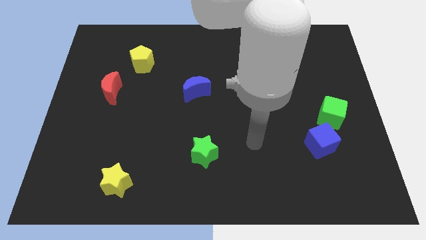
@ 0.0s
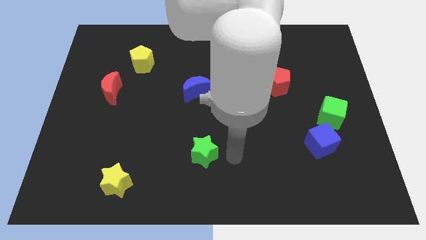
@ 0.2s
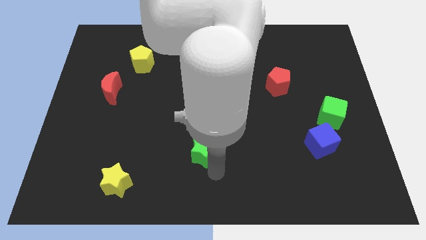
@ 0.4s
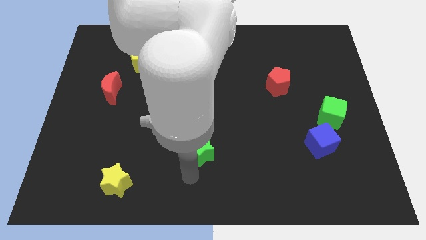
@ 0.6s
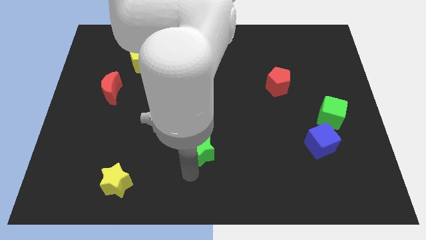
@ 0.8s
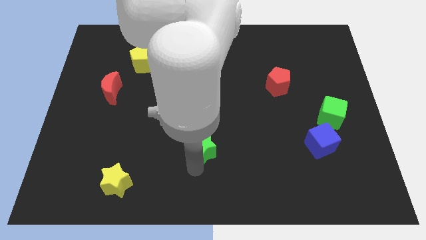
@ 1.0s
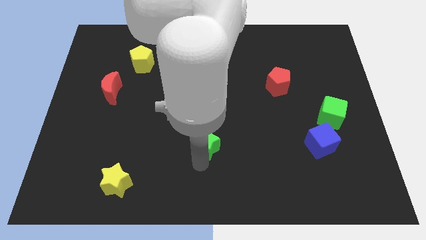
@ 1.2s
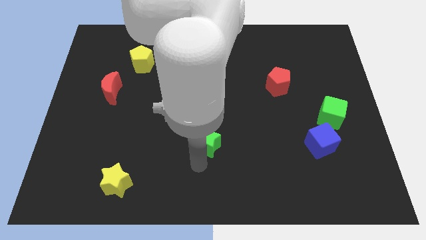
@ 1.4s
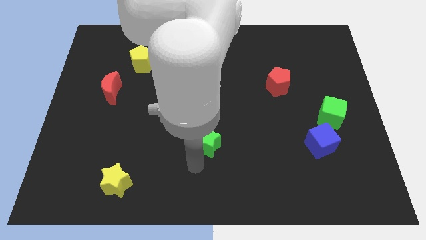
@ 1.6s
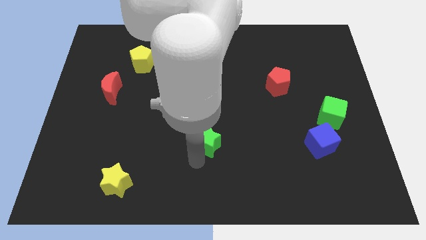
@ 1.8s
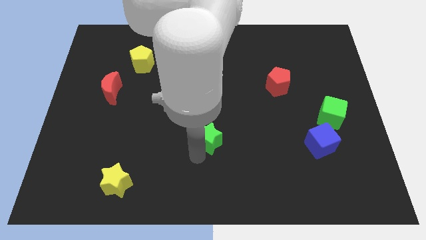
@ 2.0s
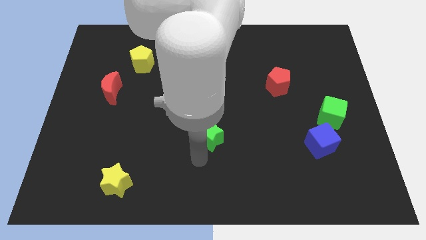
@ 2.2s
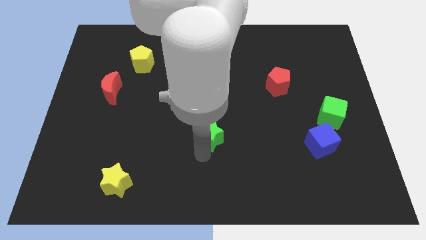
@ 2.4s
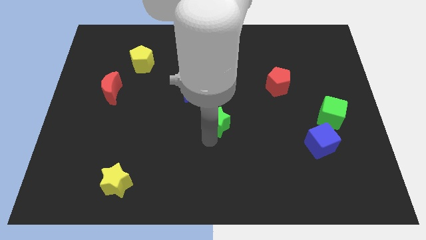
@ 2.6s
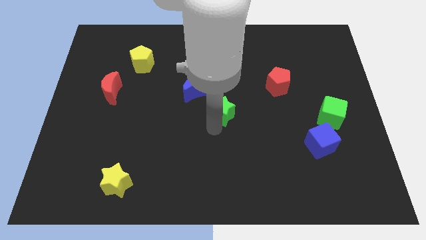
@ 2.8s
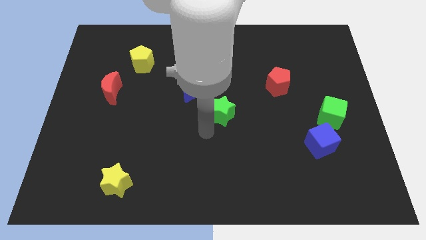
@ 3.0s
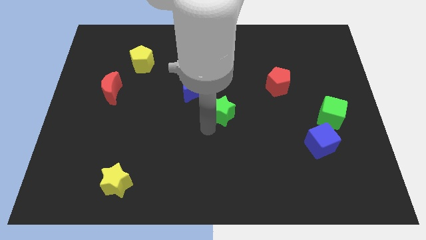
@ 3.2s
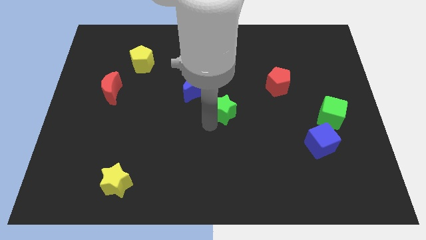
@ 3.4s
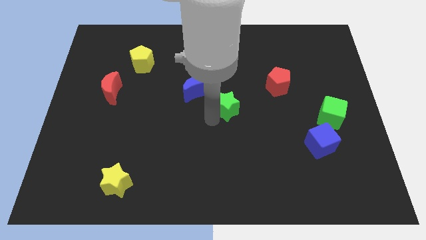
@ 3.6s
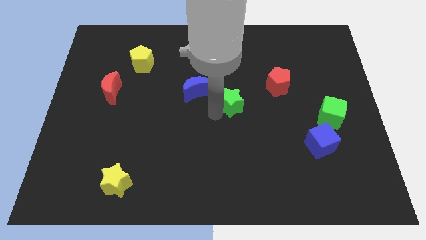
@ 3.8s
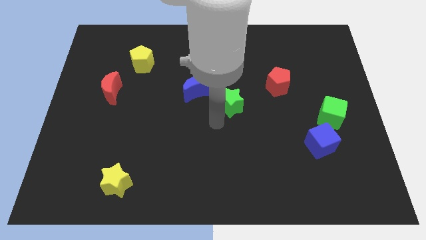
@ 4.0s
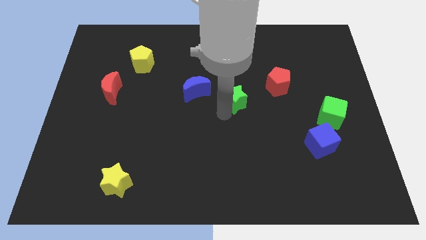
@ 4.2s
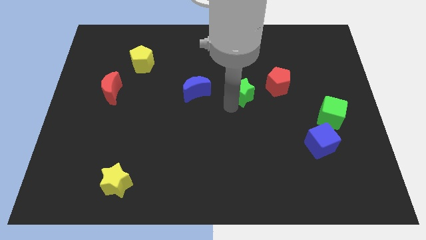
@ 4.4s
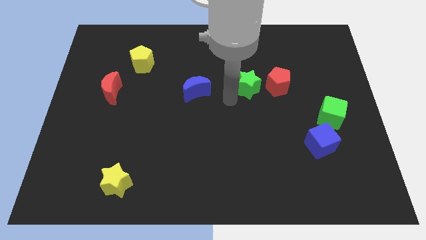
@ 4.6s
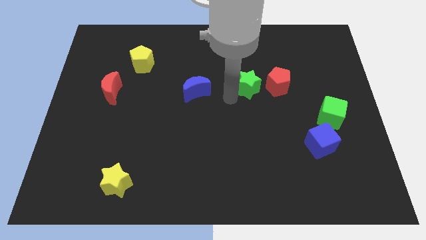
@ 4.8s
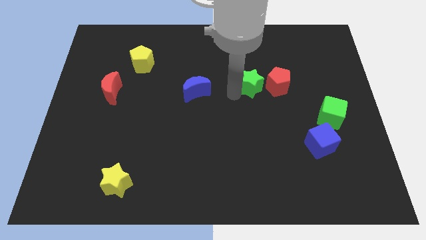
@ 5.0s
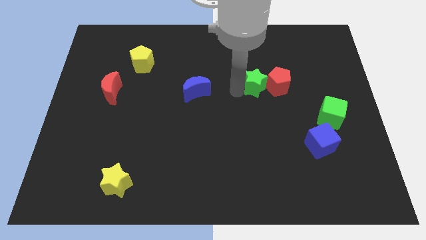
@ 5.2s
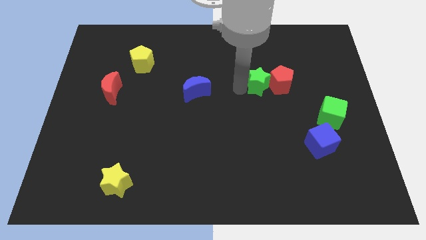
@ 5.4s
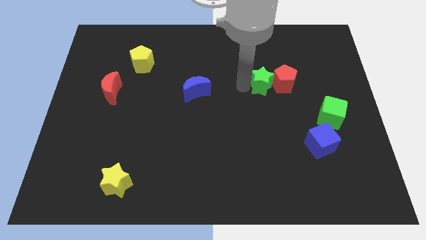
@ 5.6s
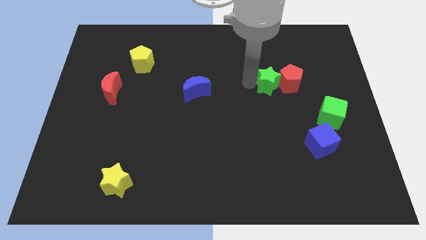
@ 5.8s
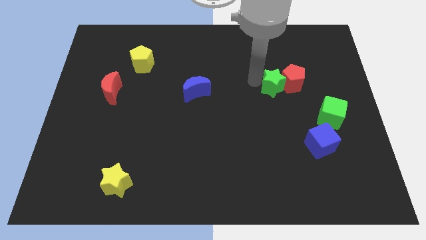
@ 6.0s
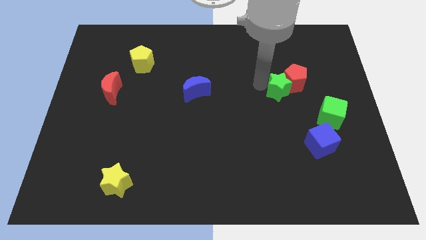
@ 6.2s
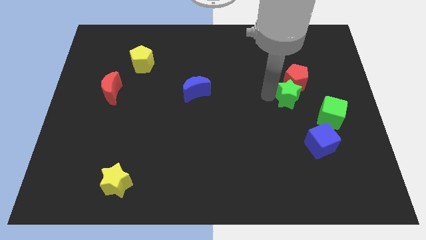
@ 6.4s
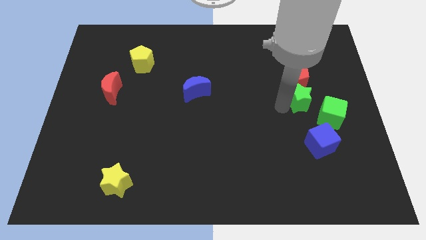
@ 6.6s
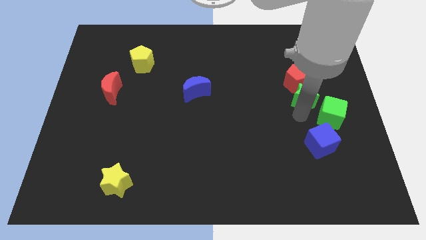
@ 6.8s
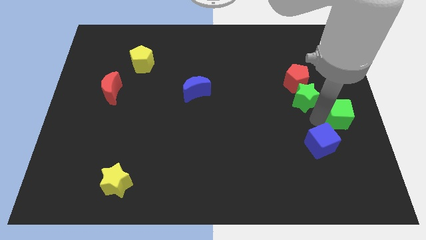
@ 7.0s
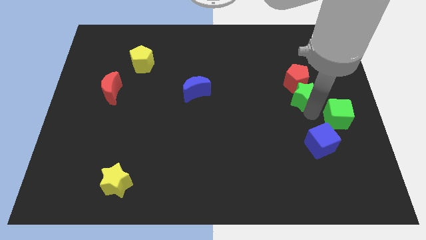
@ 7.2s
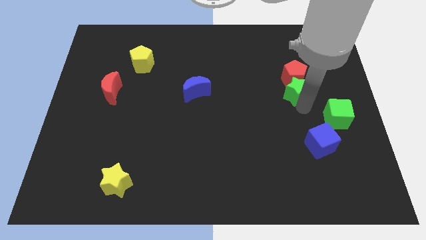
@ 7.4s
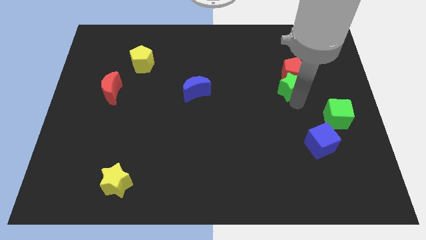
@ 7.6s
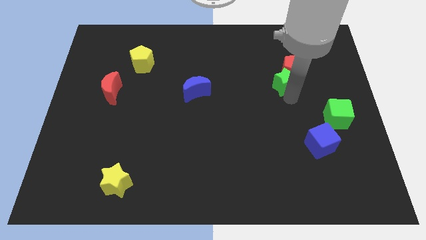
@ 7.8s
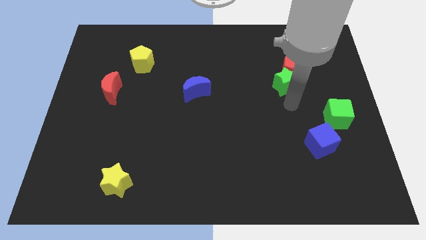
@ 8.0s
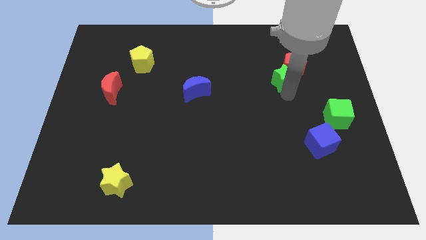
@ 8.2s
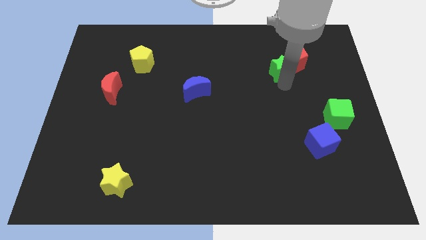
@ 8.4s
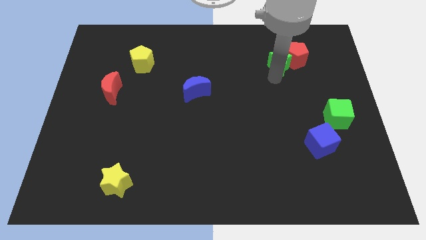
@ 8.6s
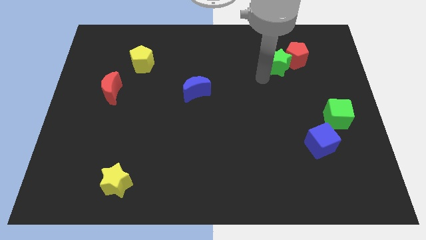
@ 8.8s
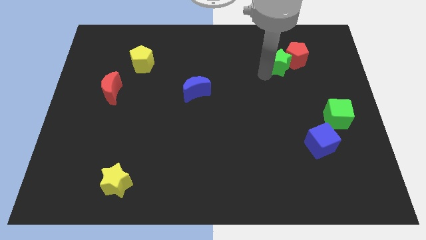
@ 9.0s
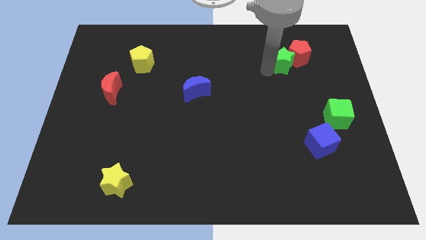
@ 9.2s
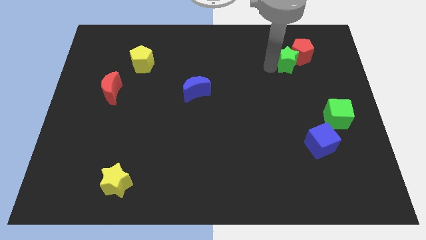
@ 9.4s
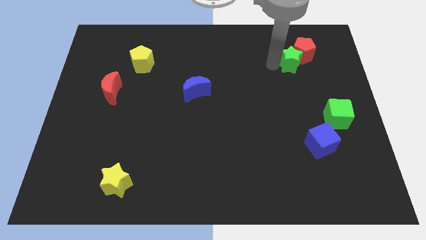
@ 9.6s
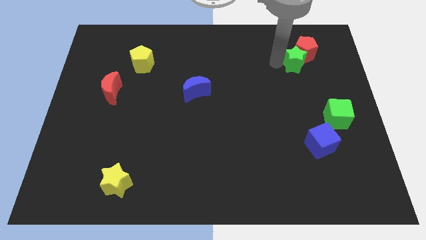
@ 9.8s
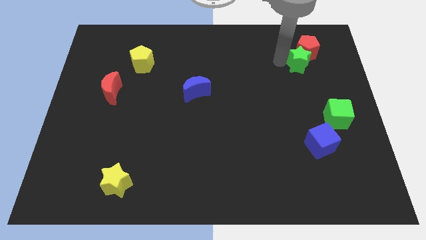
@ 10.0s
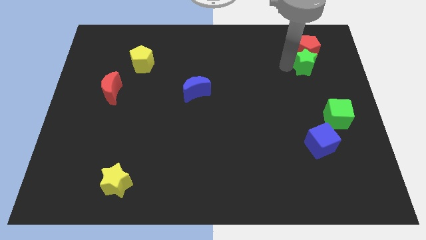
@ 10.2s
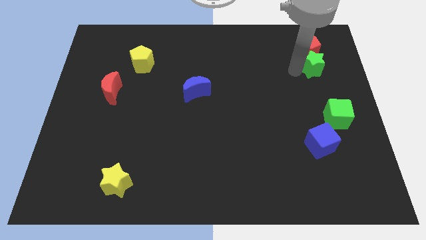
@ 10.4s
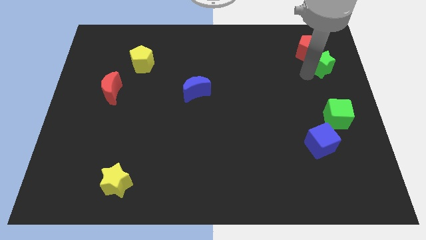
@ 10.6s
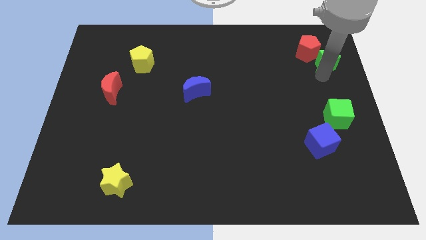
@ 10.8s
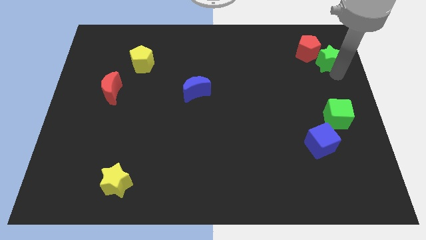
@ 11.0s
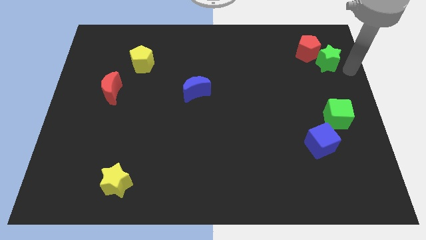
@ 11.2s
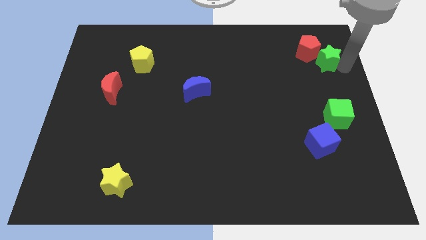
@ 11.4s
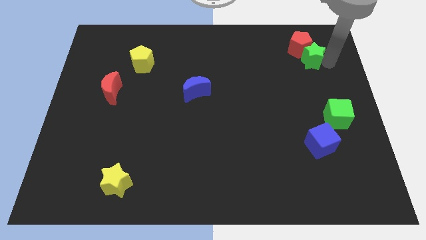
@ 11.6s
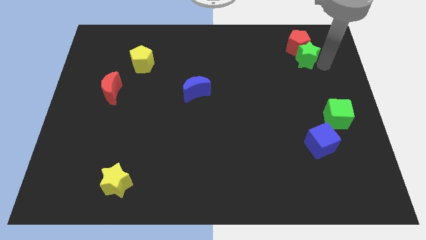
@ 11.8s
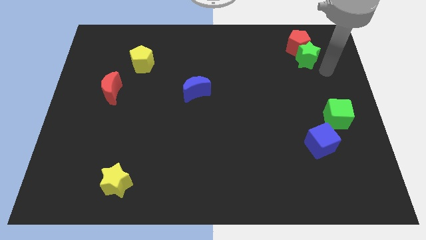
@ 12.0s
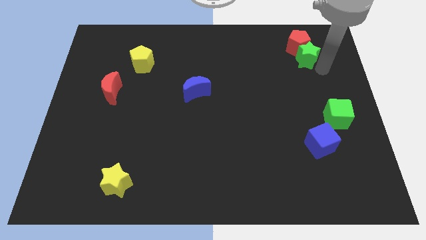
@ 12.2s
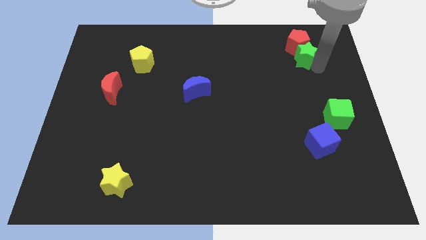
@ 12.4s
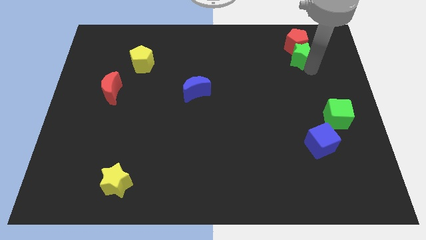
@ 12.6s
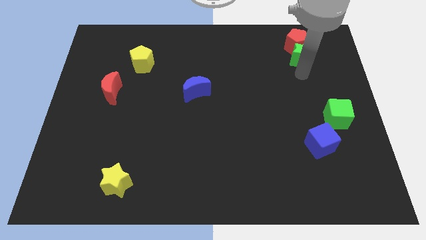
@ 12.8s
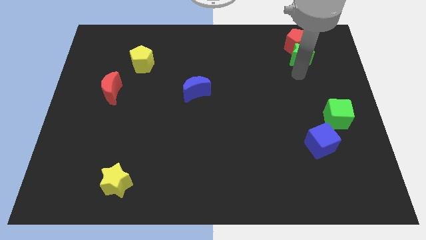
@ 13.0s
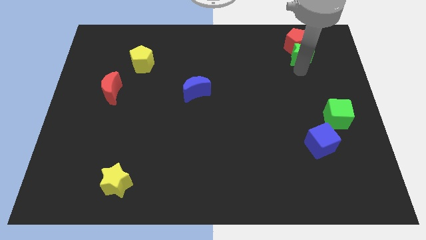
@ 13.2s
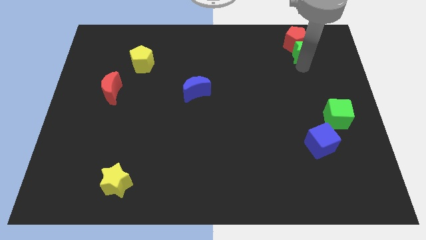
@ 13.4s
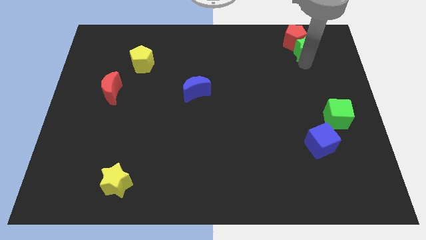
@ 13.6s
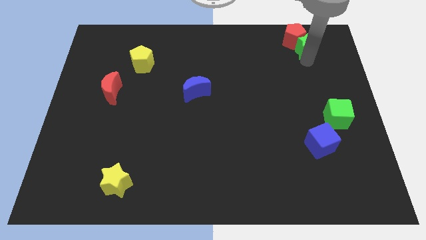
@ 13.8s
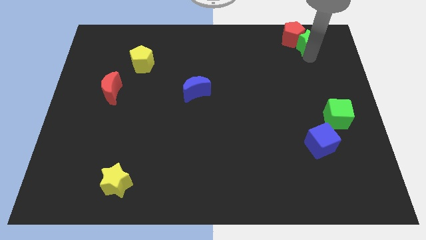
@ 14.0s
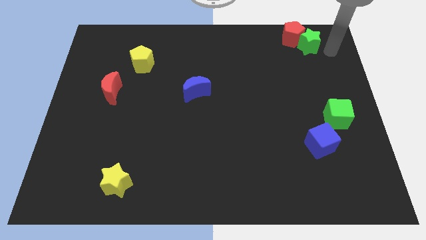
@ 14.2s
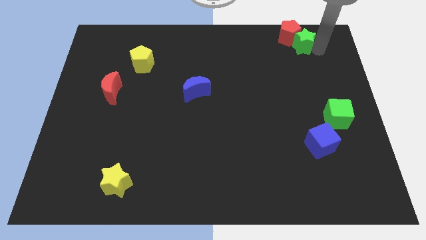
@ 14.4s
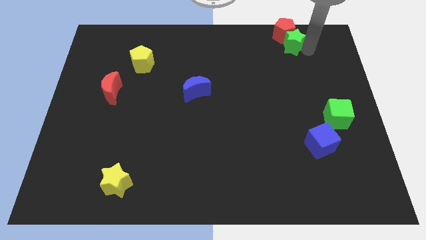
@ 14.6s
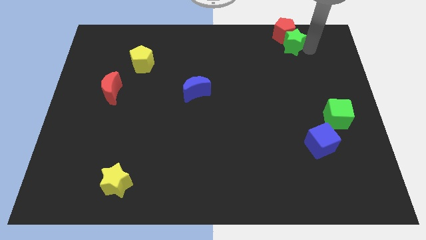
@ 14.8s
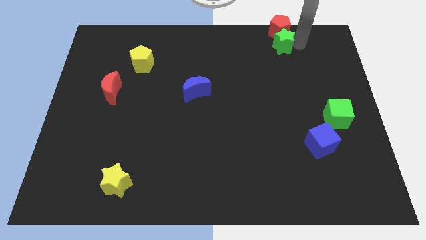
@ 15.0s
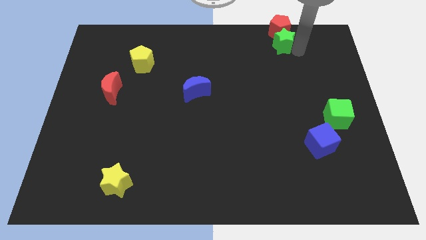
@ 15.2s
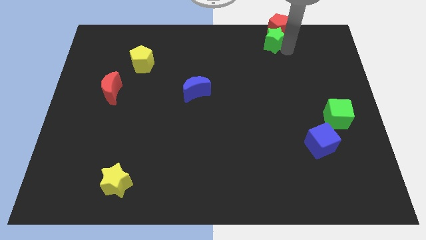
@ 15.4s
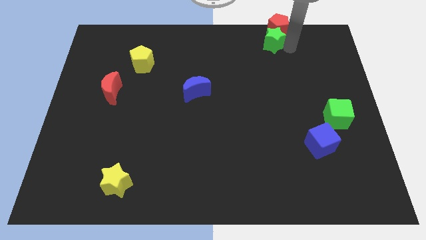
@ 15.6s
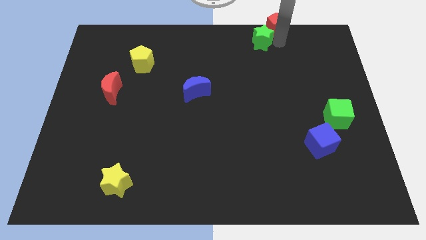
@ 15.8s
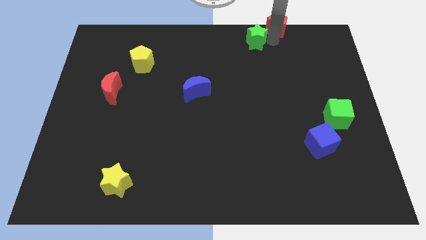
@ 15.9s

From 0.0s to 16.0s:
slide the green star to the top
